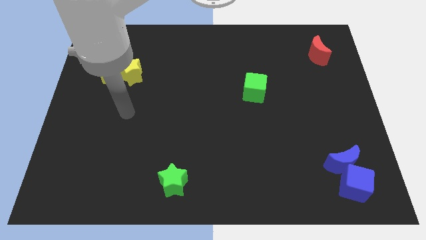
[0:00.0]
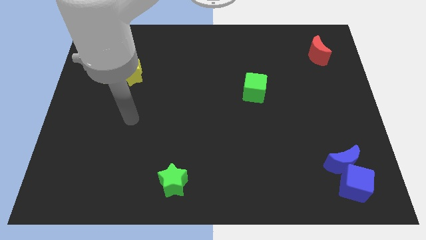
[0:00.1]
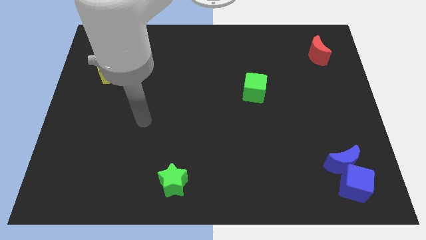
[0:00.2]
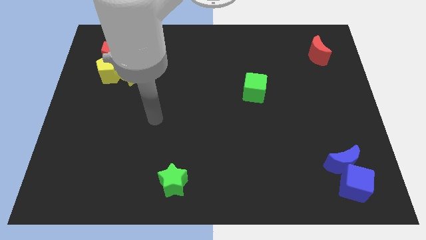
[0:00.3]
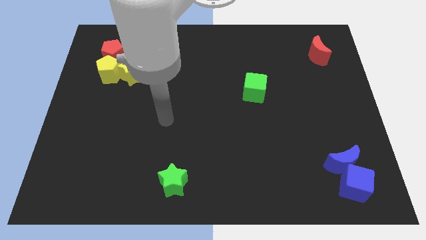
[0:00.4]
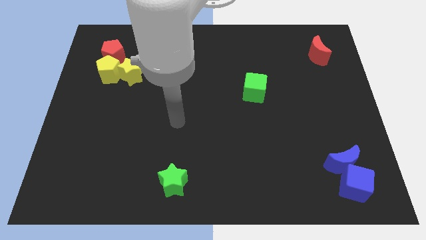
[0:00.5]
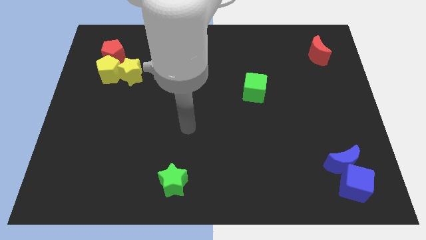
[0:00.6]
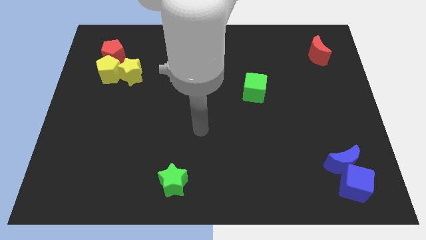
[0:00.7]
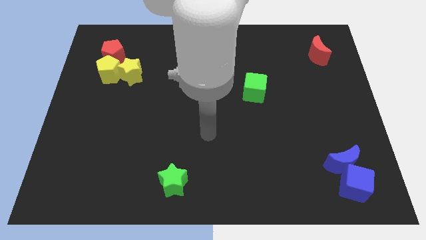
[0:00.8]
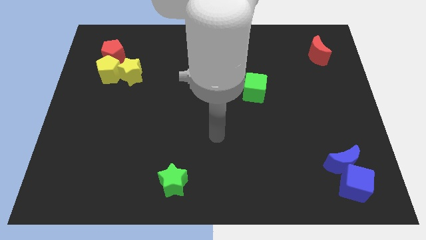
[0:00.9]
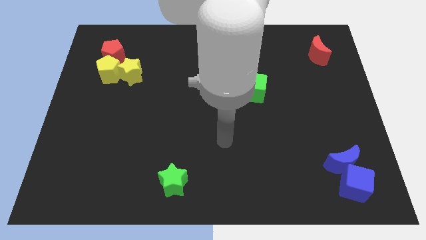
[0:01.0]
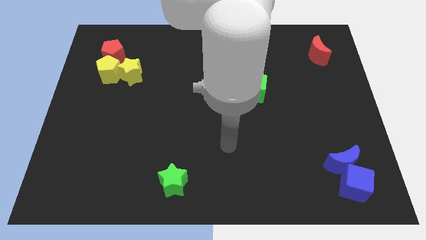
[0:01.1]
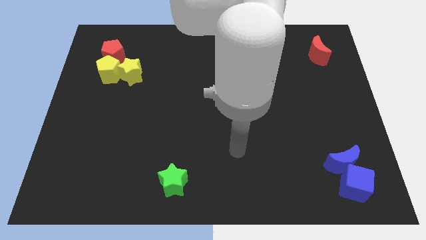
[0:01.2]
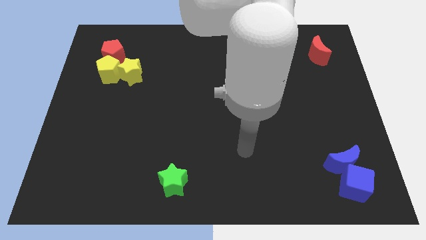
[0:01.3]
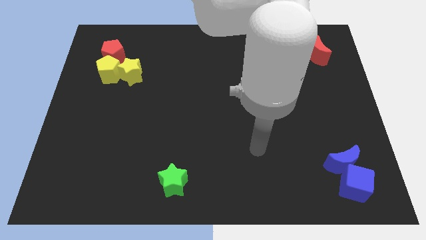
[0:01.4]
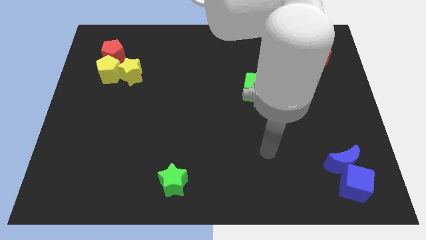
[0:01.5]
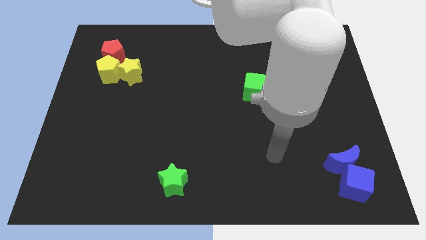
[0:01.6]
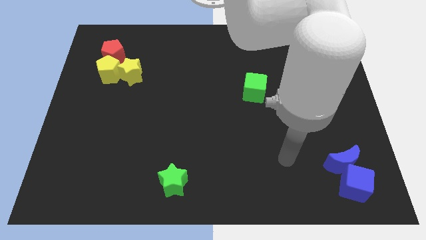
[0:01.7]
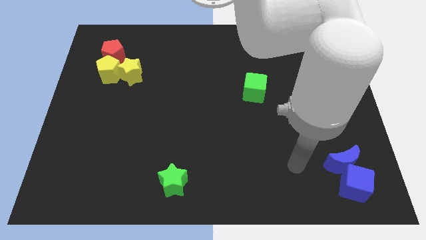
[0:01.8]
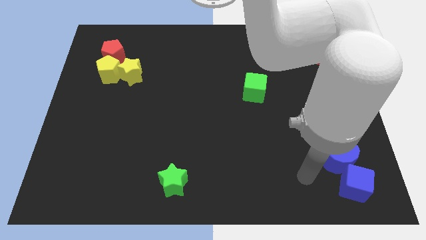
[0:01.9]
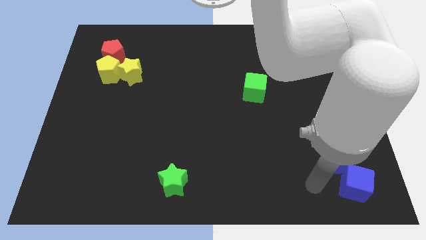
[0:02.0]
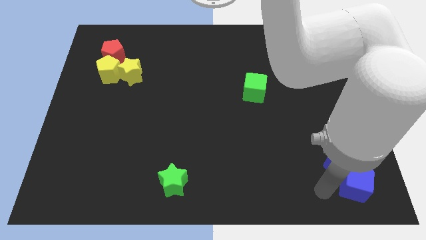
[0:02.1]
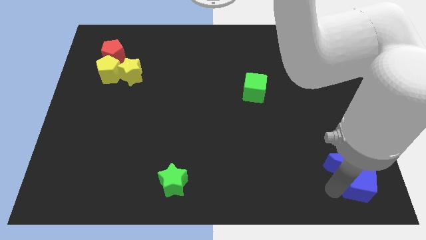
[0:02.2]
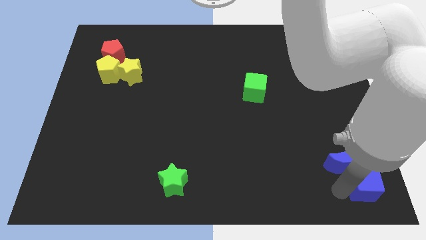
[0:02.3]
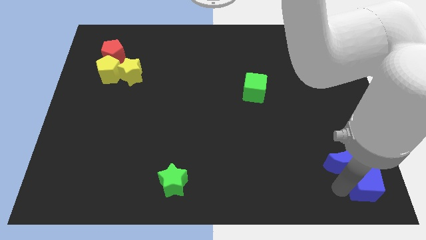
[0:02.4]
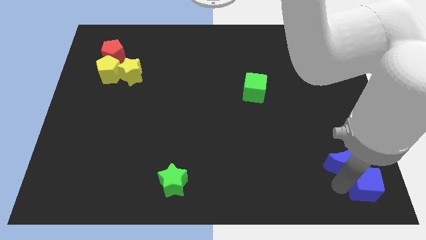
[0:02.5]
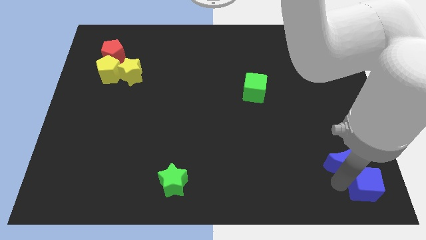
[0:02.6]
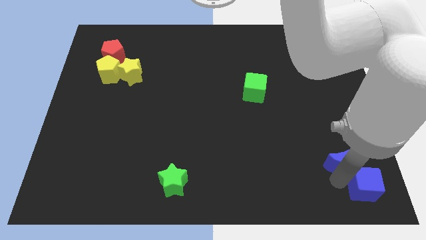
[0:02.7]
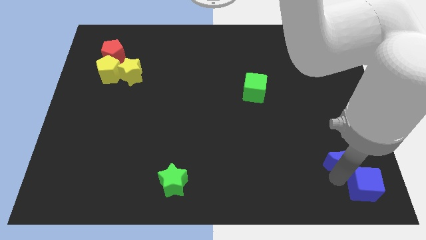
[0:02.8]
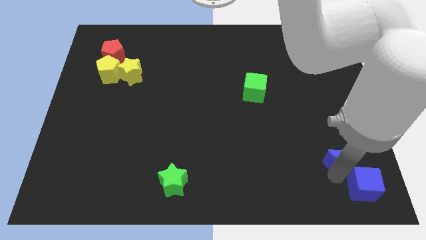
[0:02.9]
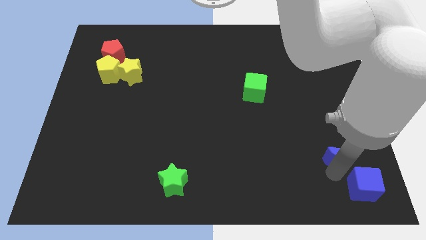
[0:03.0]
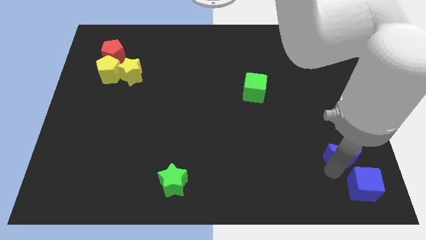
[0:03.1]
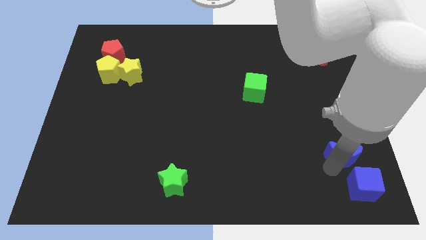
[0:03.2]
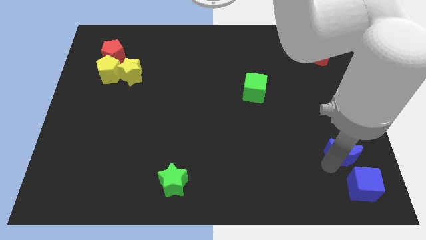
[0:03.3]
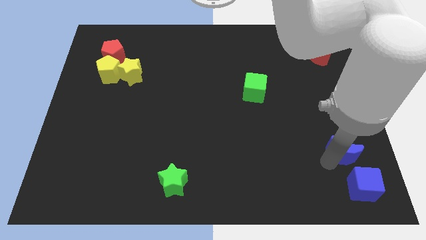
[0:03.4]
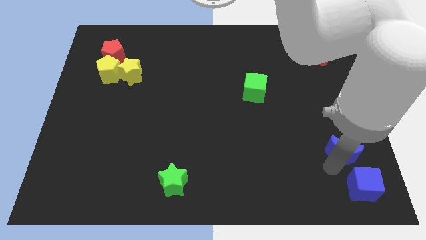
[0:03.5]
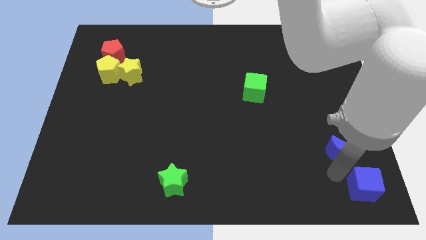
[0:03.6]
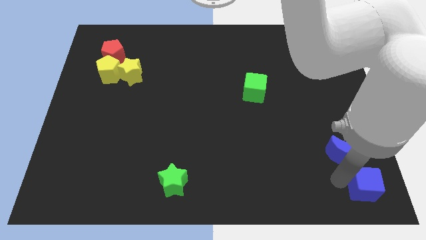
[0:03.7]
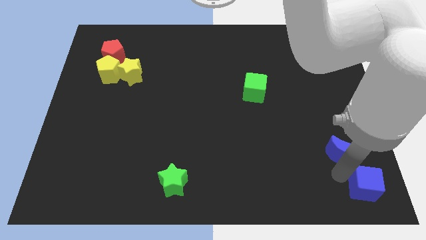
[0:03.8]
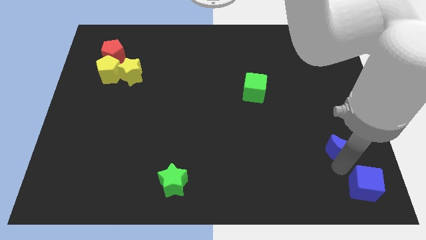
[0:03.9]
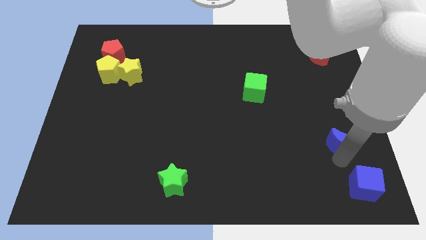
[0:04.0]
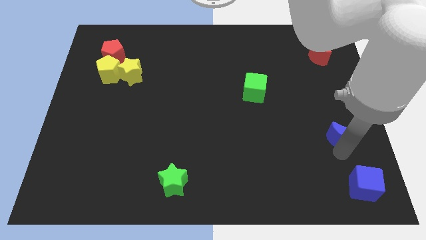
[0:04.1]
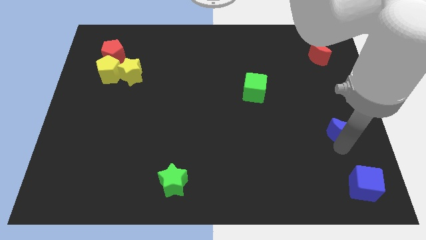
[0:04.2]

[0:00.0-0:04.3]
push the blue moon up slightly

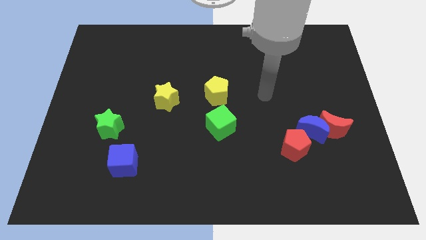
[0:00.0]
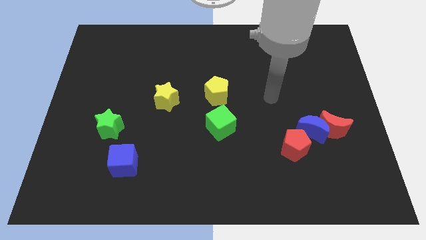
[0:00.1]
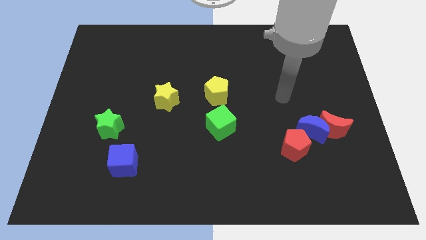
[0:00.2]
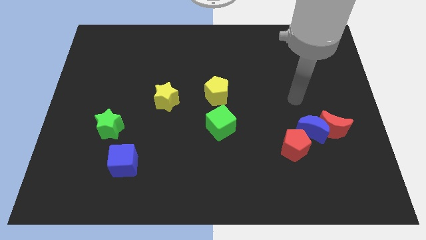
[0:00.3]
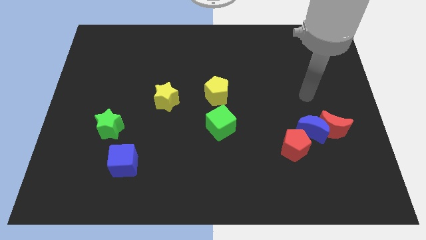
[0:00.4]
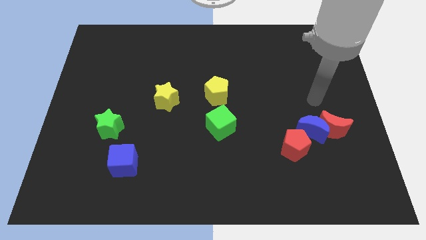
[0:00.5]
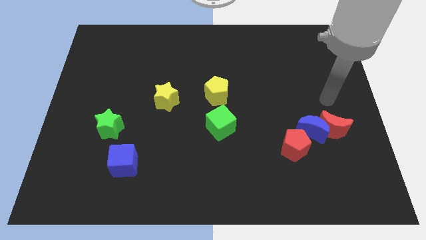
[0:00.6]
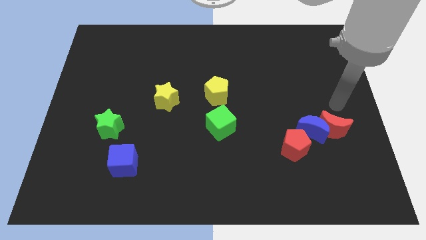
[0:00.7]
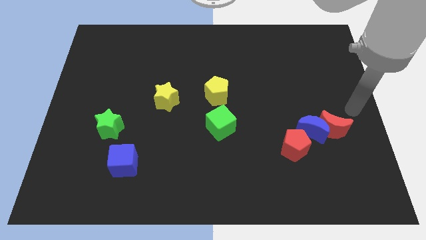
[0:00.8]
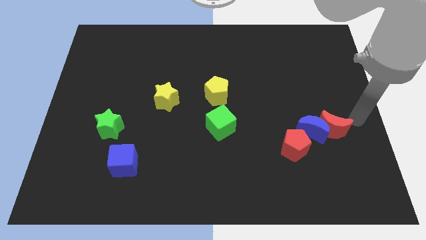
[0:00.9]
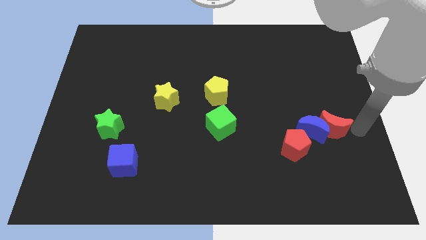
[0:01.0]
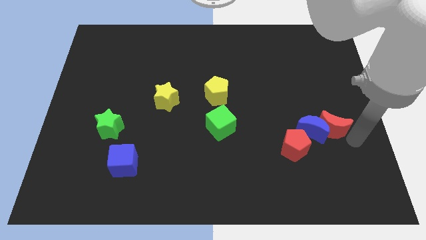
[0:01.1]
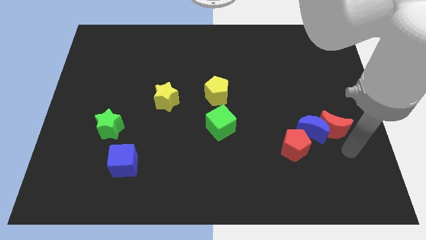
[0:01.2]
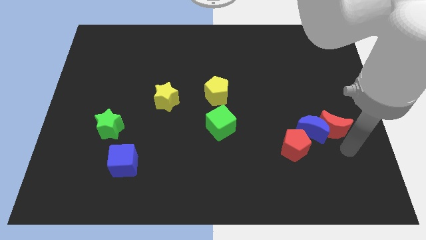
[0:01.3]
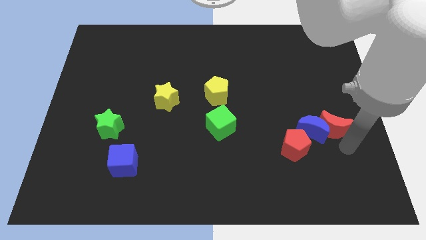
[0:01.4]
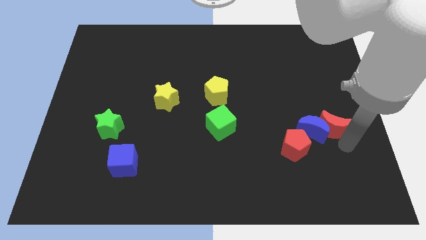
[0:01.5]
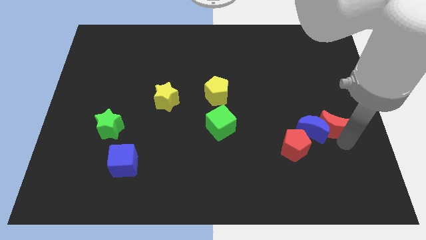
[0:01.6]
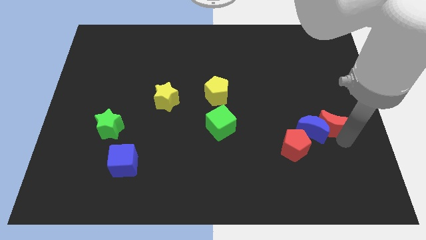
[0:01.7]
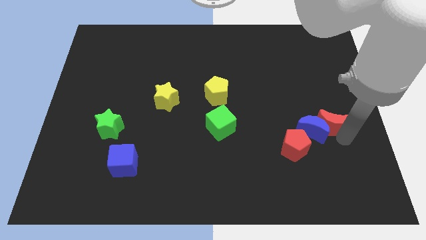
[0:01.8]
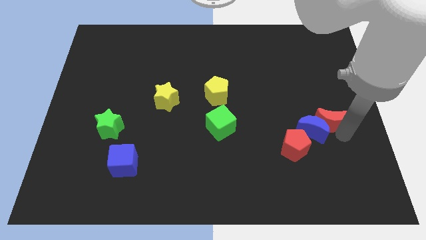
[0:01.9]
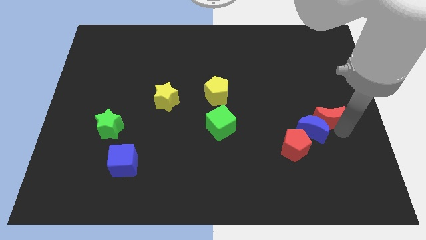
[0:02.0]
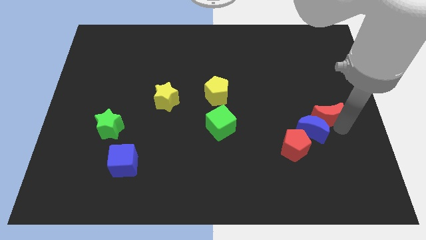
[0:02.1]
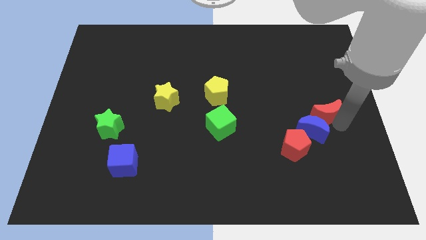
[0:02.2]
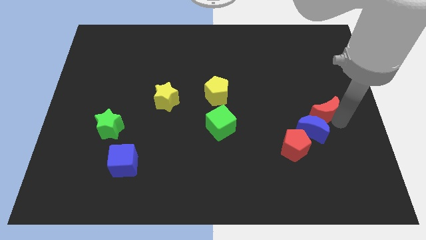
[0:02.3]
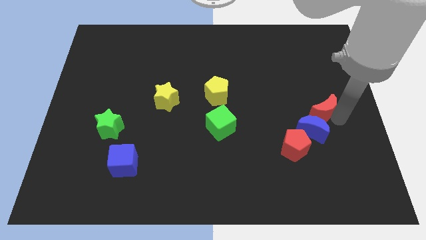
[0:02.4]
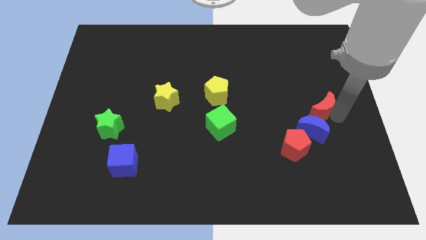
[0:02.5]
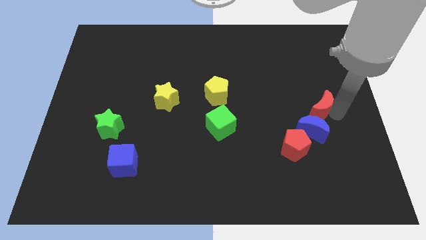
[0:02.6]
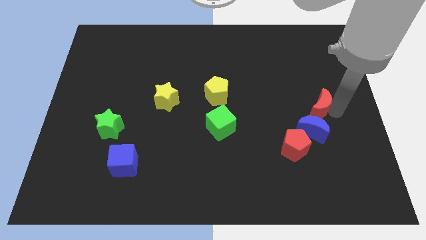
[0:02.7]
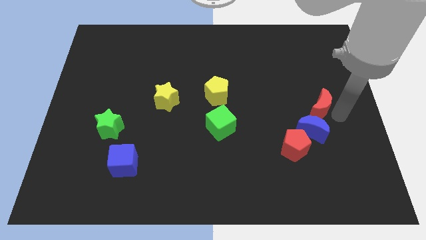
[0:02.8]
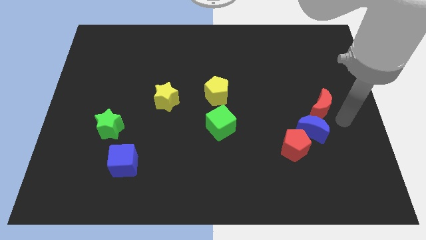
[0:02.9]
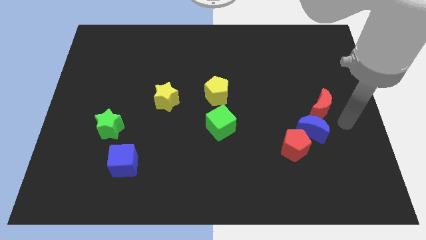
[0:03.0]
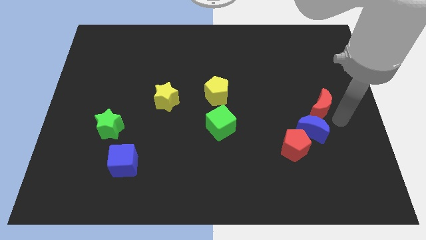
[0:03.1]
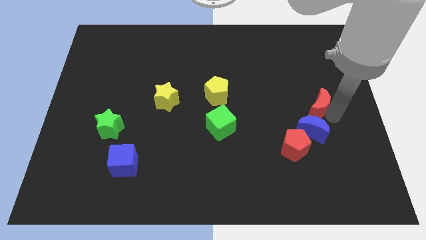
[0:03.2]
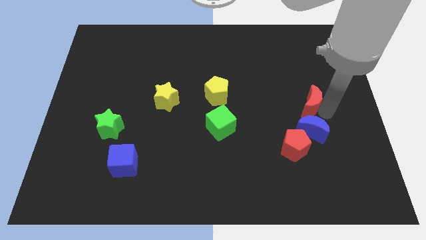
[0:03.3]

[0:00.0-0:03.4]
push the red moon upwards and to the left somewhat

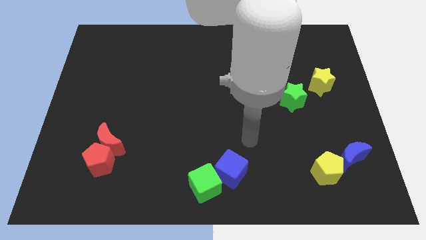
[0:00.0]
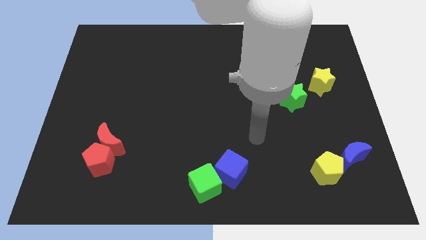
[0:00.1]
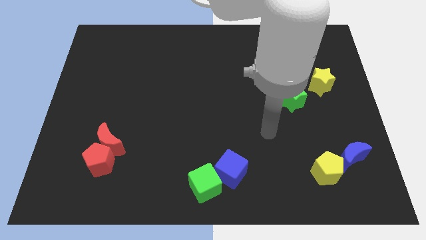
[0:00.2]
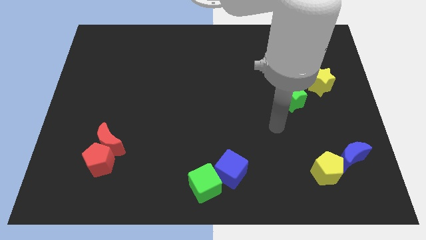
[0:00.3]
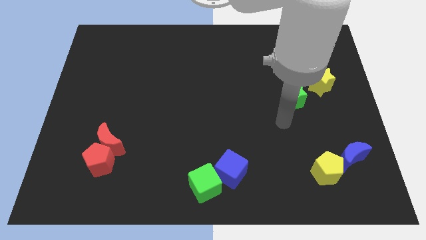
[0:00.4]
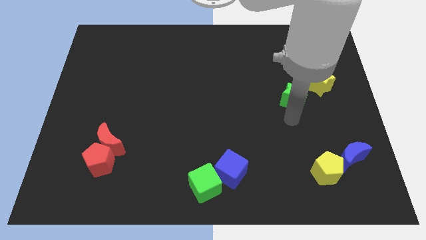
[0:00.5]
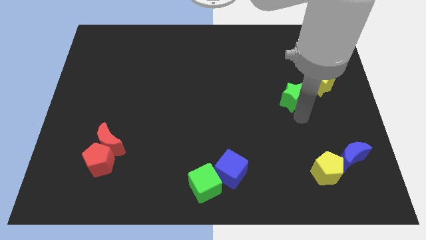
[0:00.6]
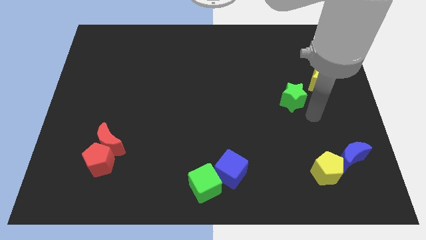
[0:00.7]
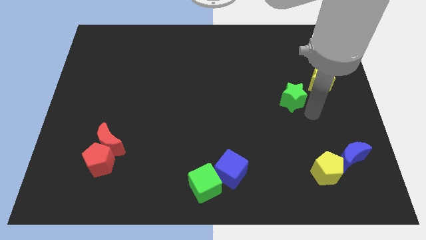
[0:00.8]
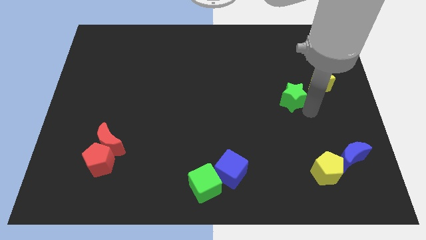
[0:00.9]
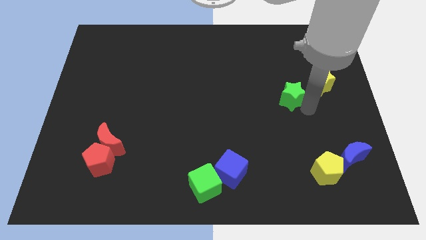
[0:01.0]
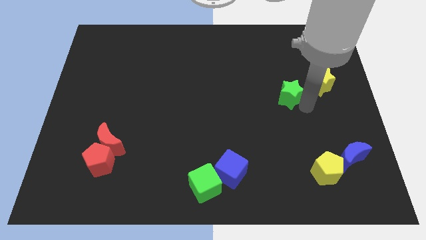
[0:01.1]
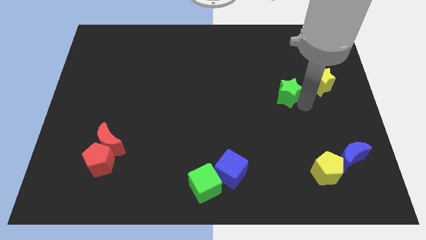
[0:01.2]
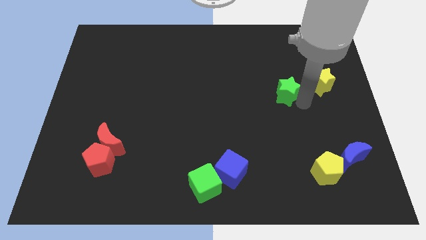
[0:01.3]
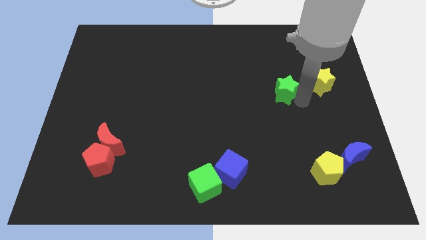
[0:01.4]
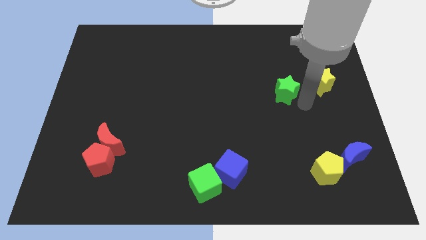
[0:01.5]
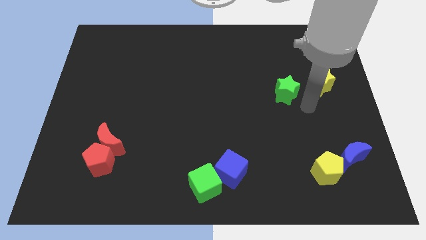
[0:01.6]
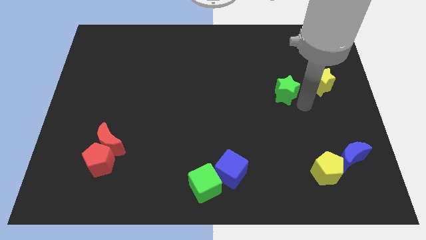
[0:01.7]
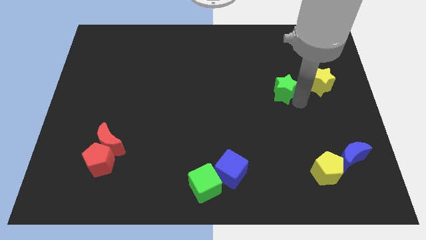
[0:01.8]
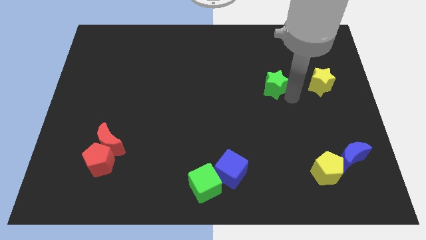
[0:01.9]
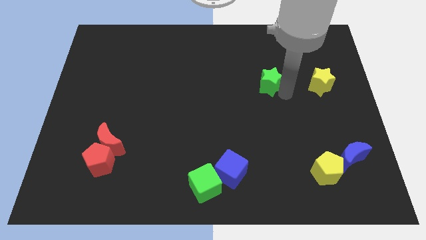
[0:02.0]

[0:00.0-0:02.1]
move the green star up and left slightly
